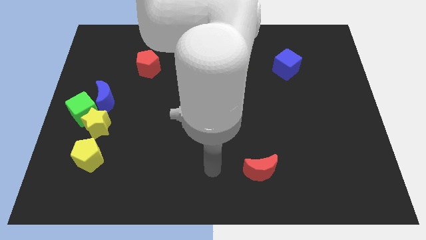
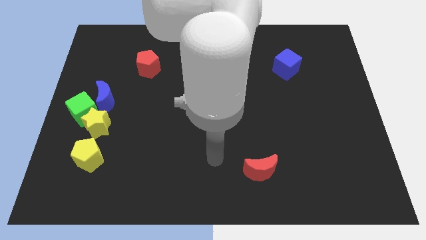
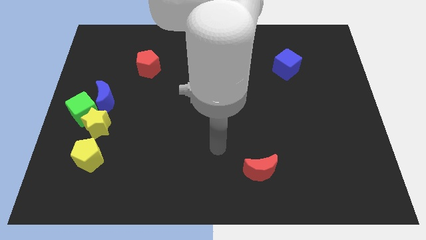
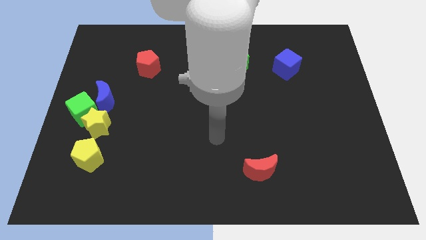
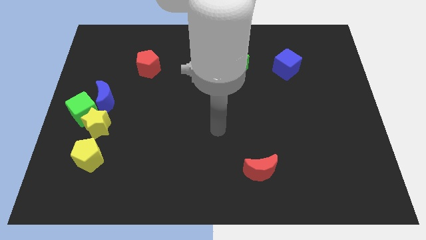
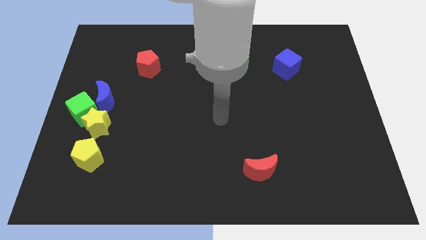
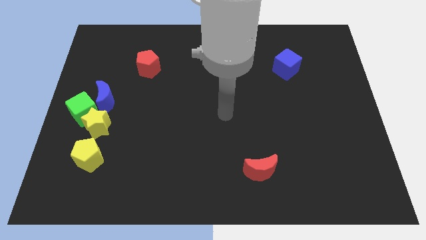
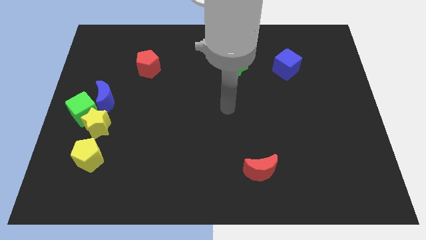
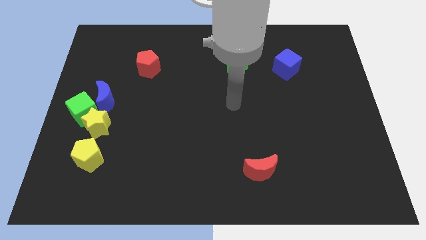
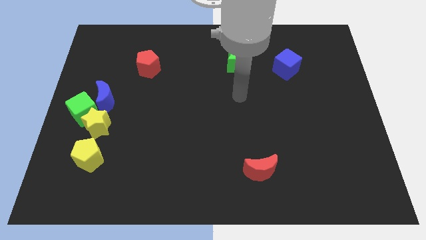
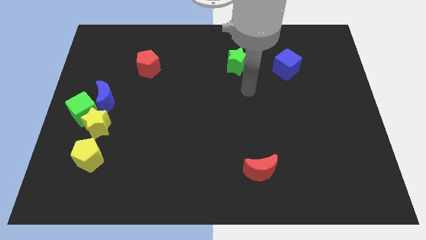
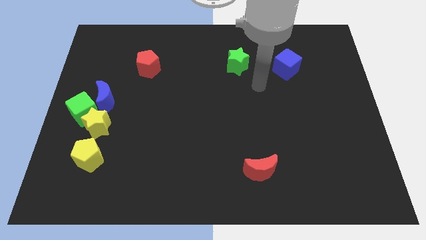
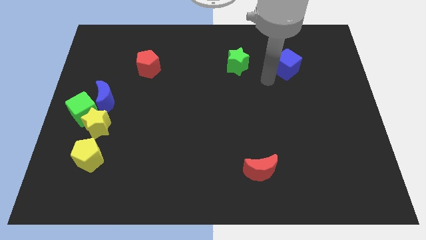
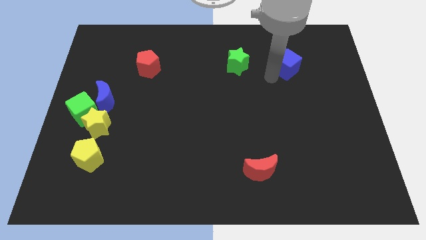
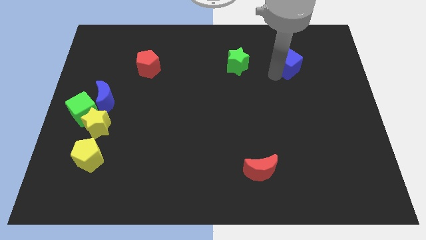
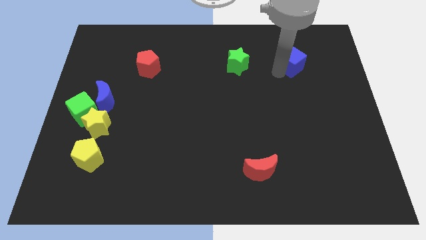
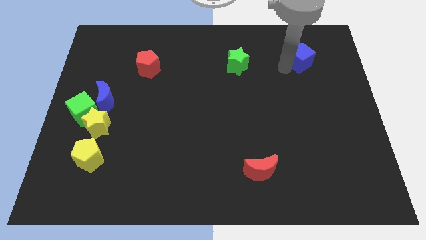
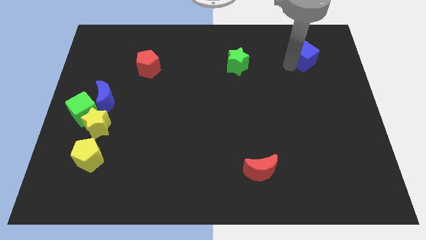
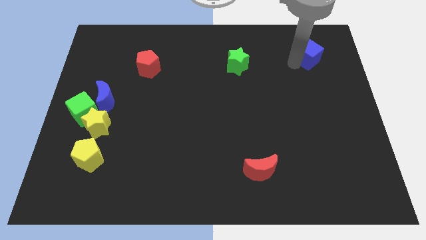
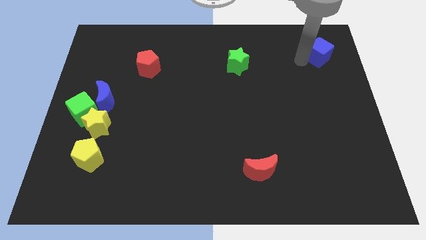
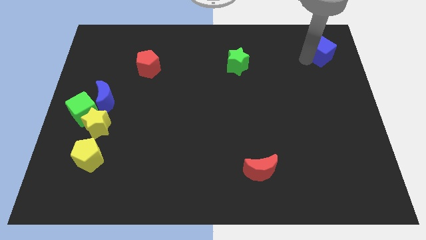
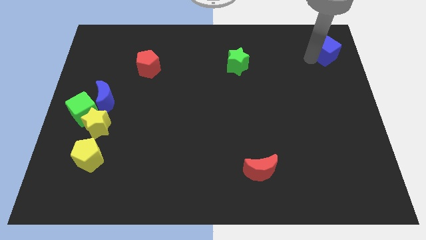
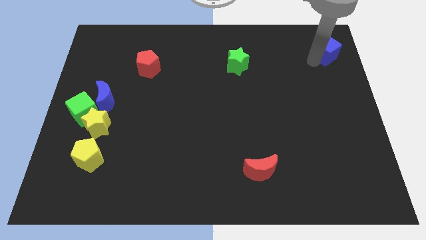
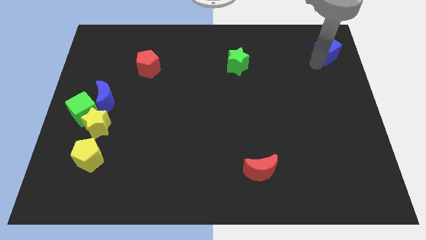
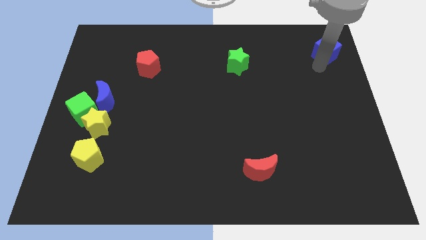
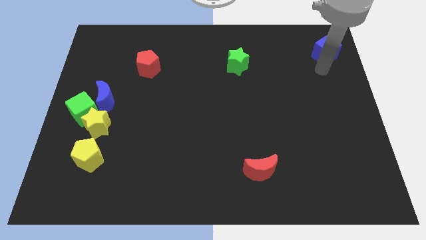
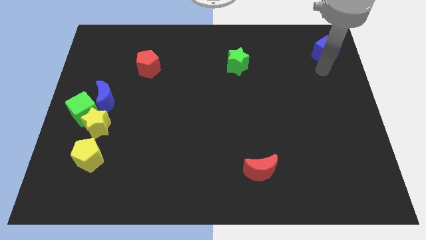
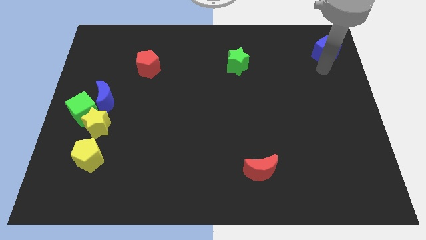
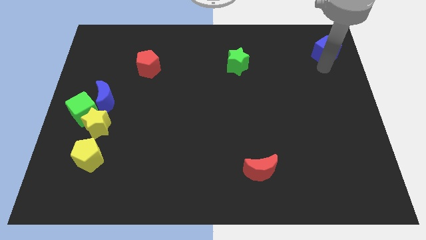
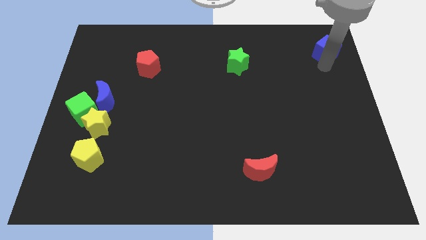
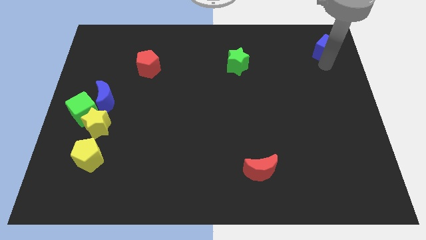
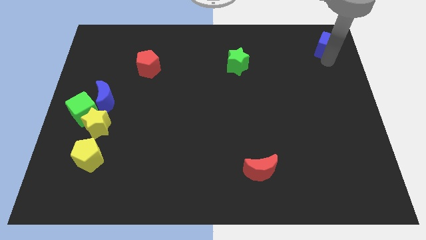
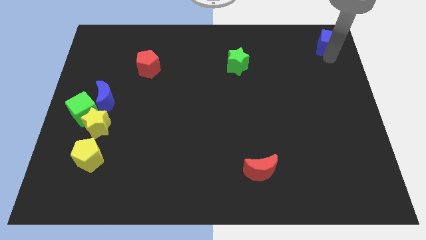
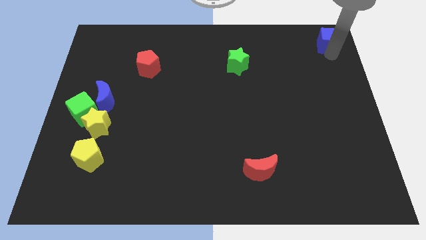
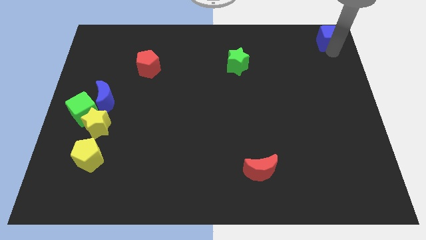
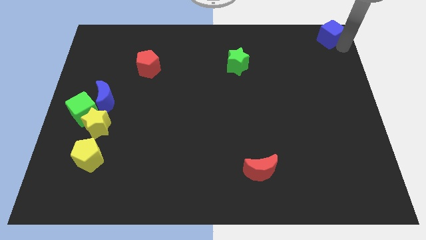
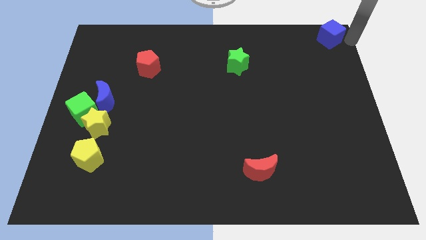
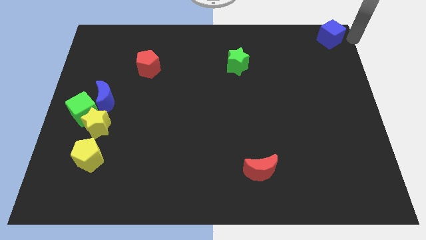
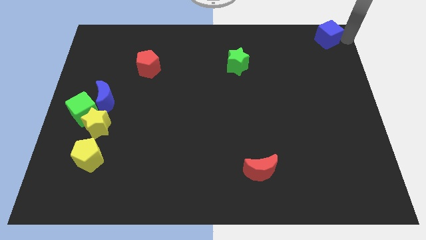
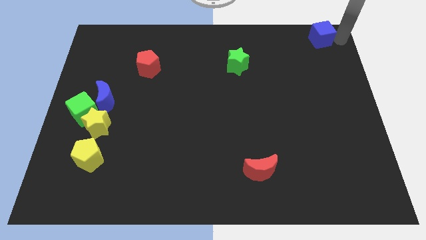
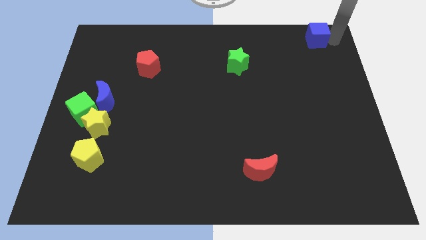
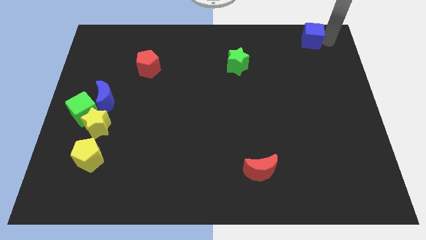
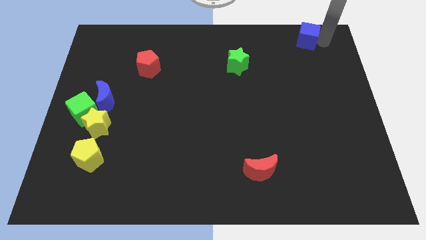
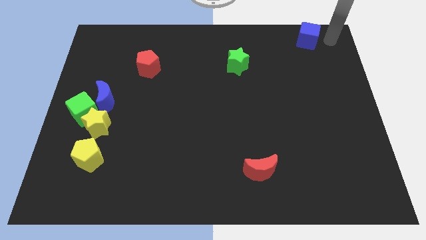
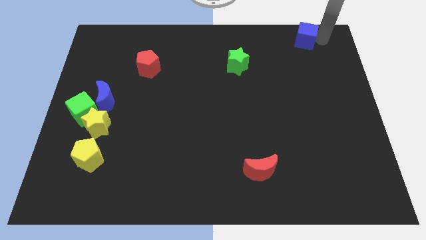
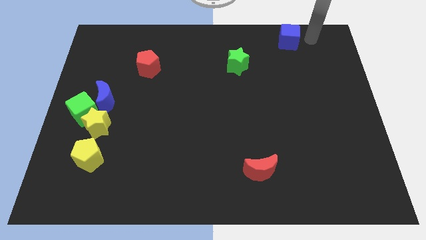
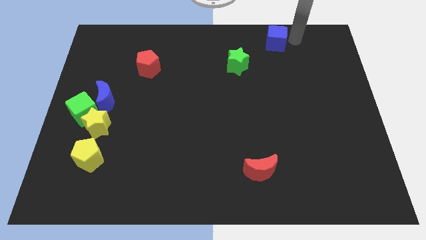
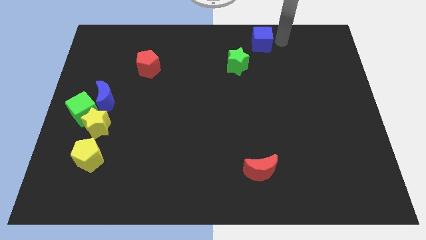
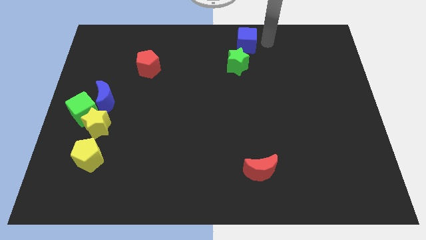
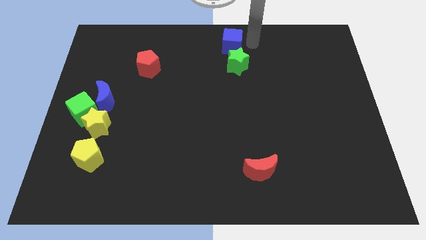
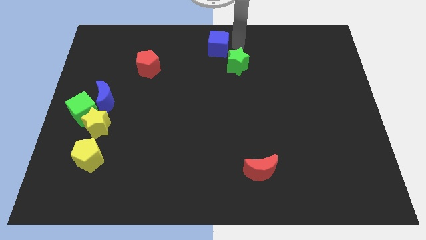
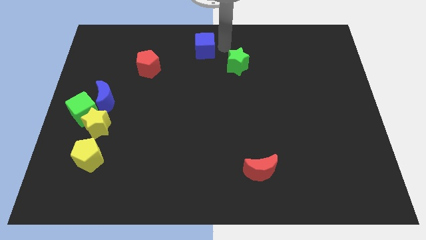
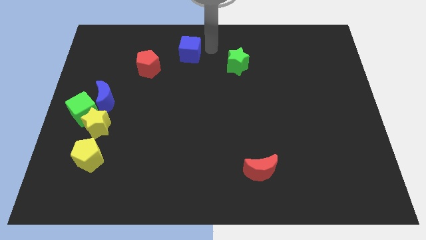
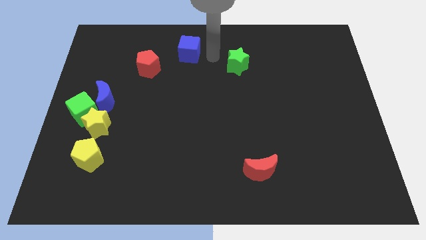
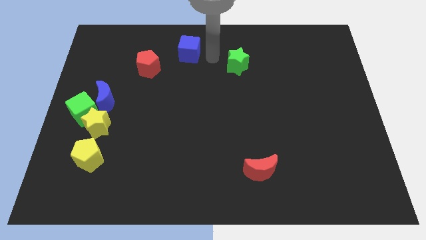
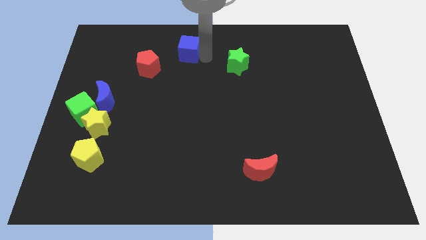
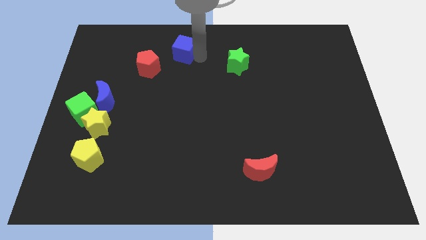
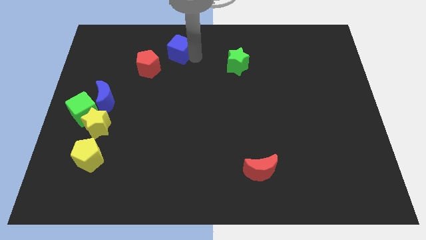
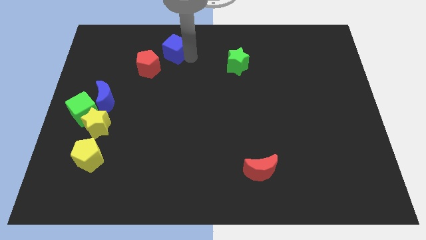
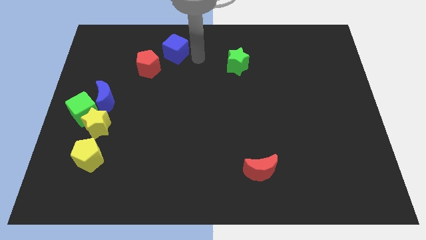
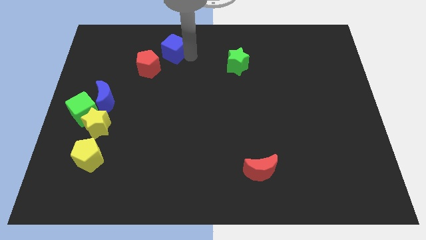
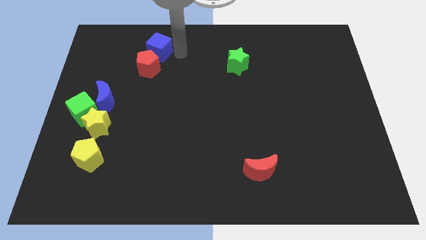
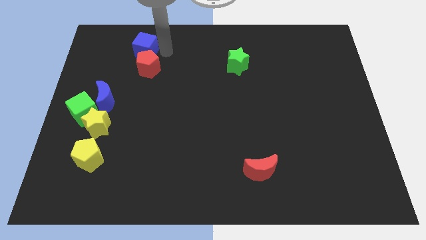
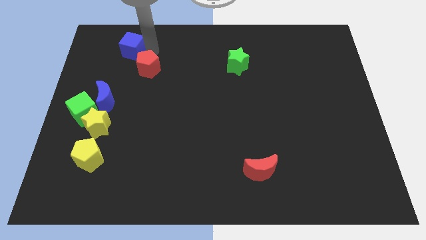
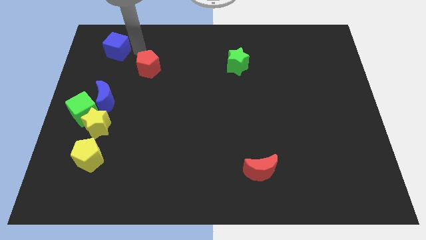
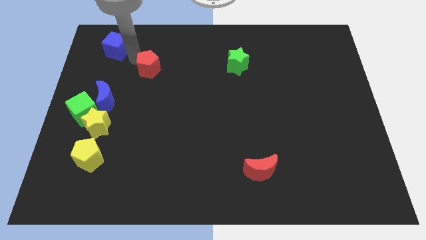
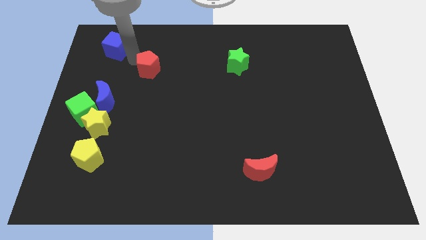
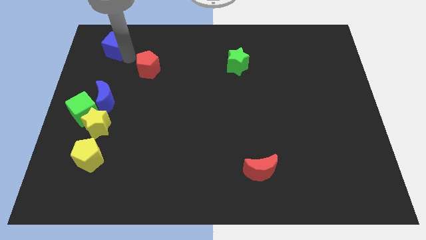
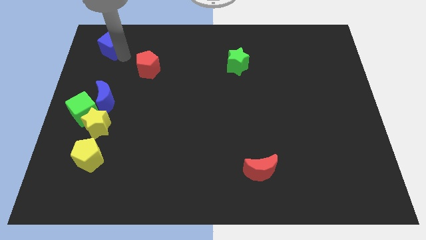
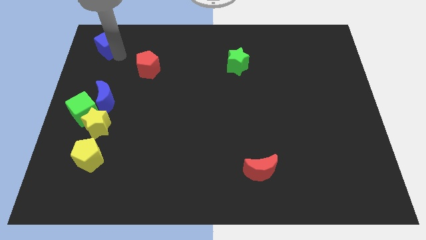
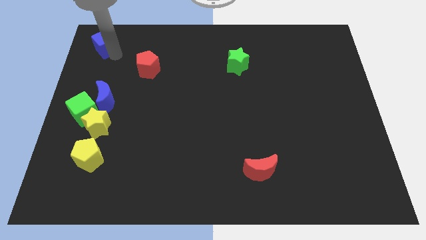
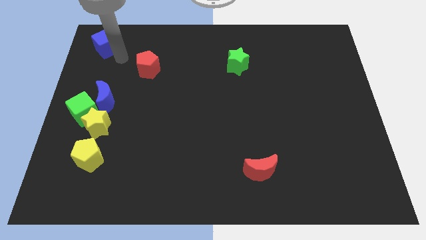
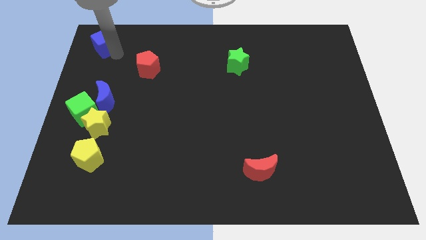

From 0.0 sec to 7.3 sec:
push the blue cube to the upper left corner
